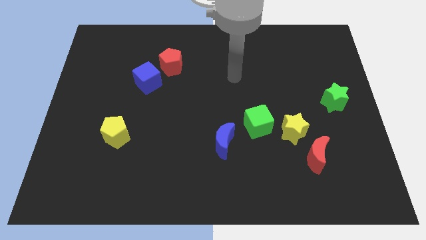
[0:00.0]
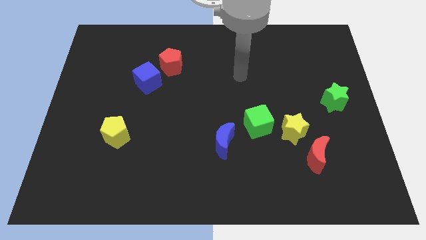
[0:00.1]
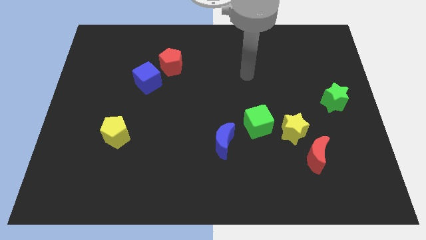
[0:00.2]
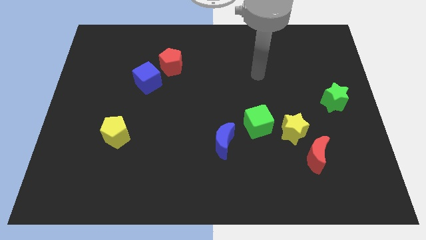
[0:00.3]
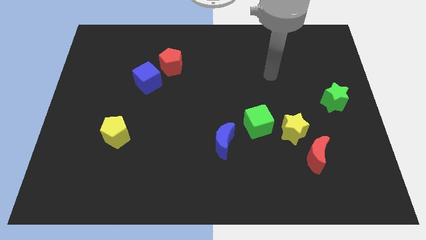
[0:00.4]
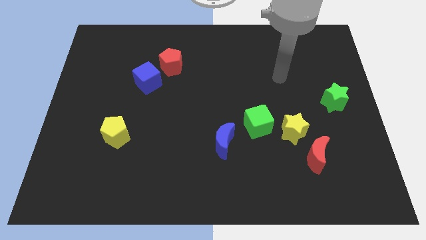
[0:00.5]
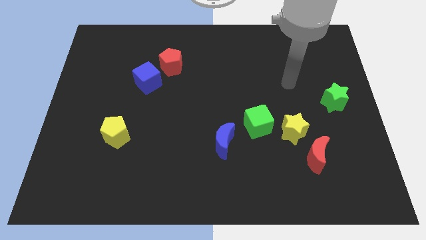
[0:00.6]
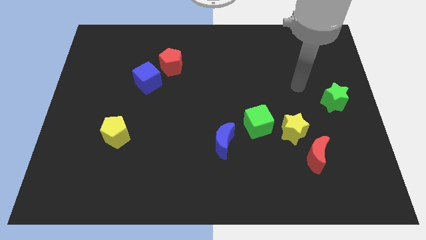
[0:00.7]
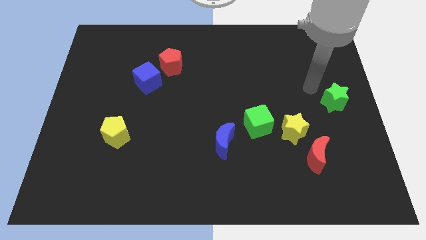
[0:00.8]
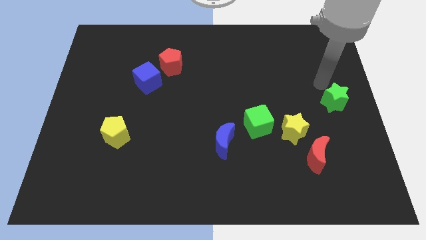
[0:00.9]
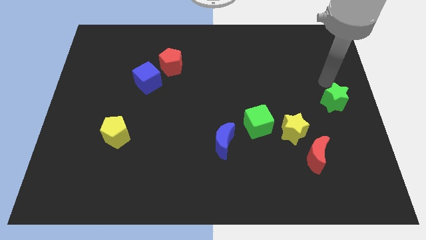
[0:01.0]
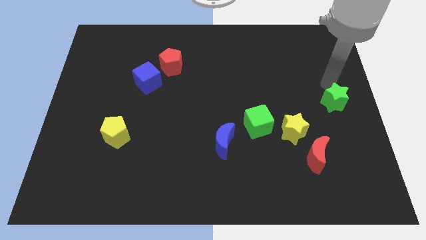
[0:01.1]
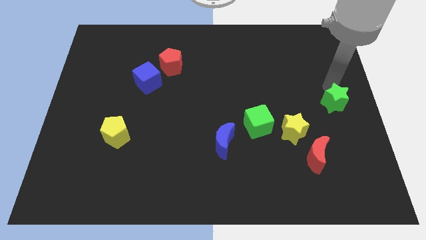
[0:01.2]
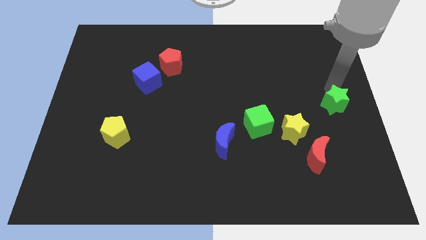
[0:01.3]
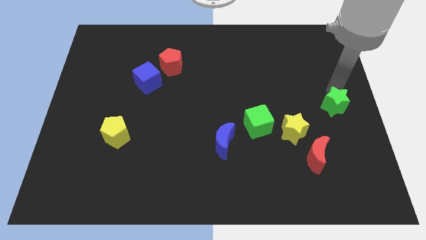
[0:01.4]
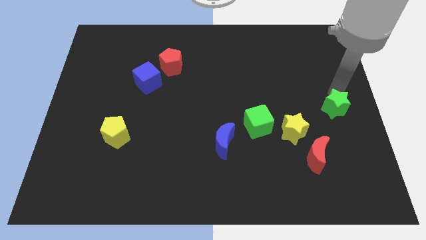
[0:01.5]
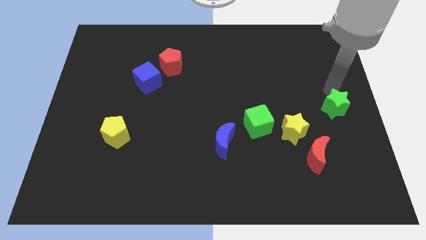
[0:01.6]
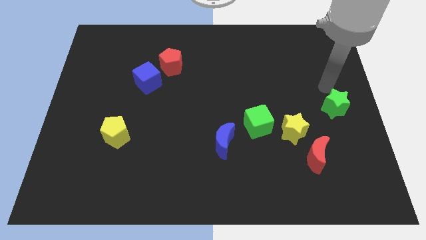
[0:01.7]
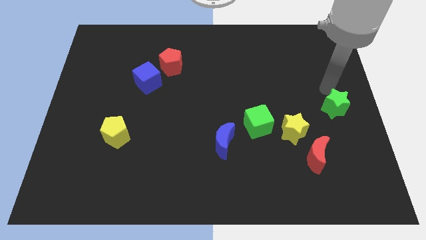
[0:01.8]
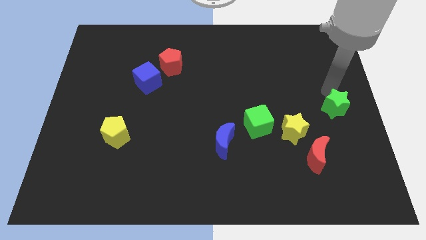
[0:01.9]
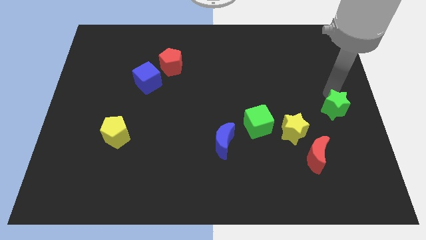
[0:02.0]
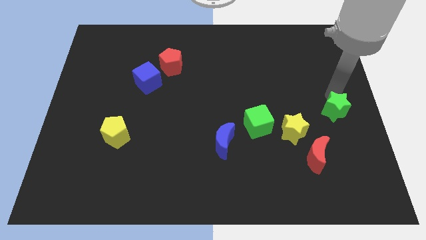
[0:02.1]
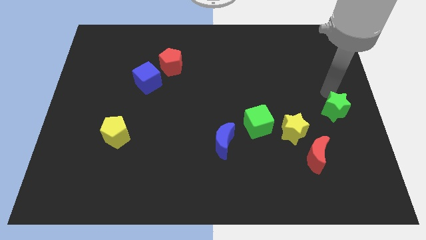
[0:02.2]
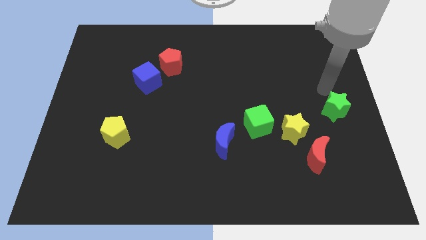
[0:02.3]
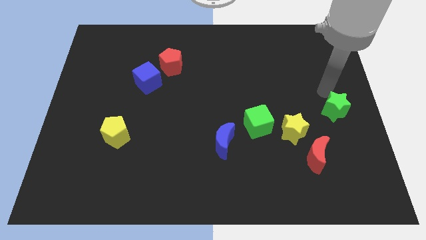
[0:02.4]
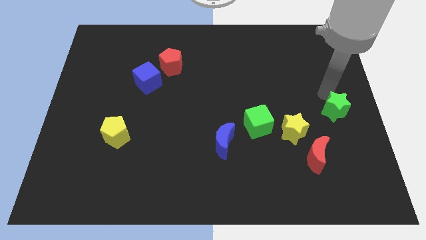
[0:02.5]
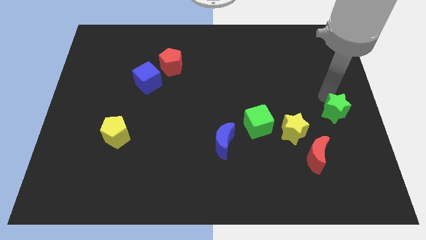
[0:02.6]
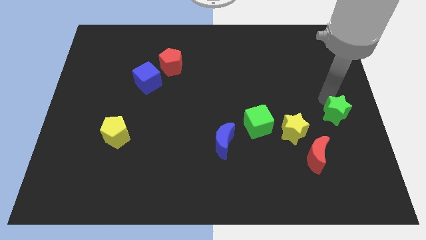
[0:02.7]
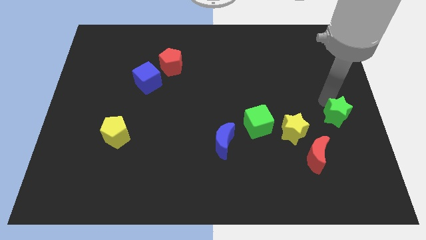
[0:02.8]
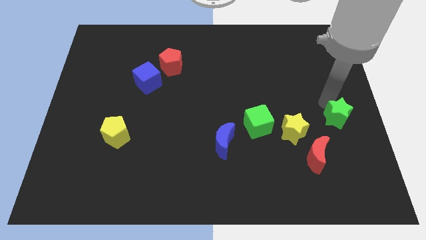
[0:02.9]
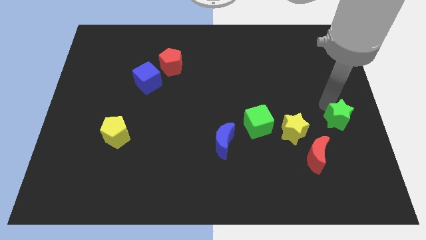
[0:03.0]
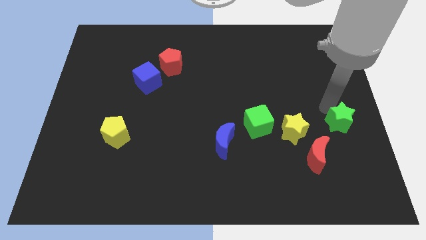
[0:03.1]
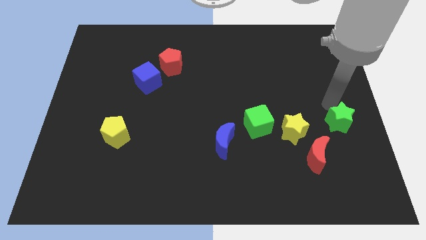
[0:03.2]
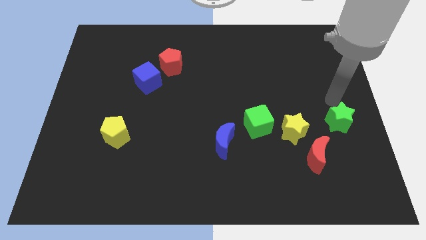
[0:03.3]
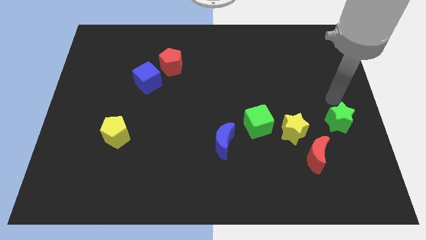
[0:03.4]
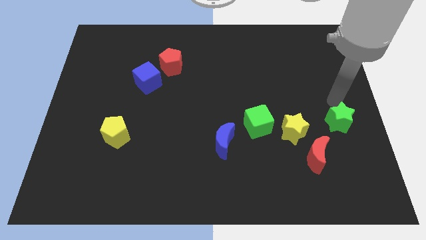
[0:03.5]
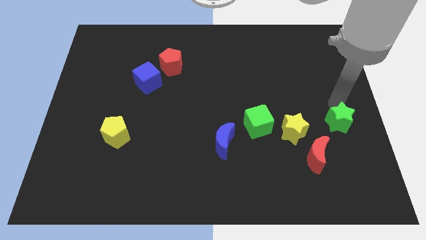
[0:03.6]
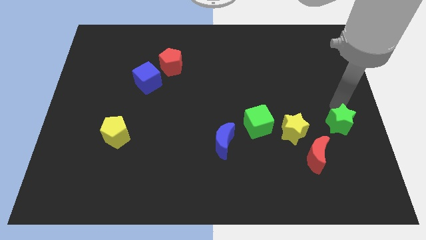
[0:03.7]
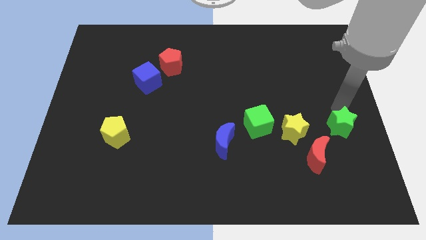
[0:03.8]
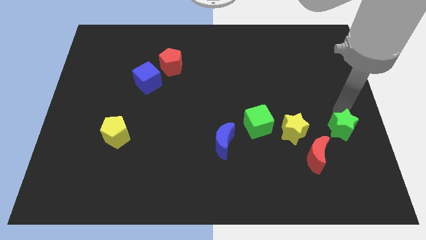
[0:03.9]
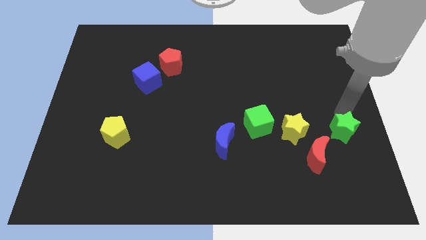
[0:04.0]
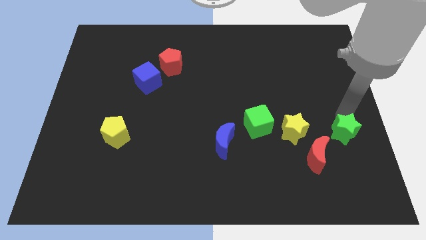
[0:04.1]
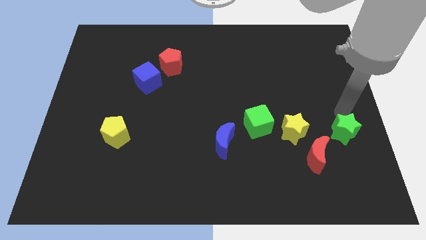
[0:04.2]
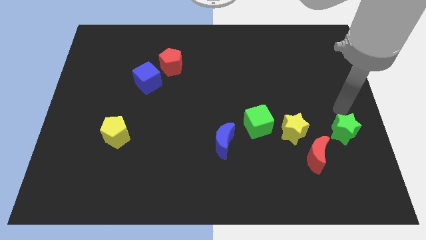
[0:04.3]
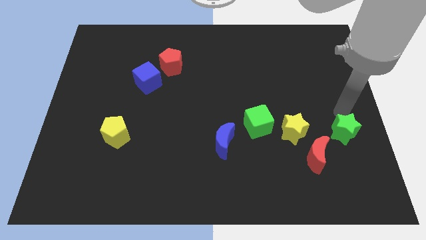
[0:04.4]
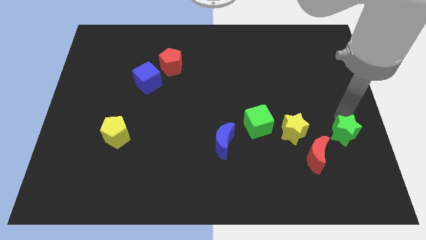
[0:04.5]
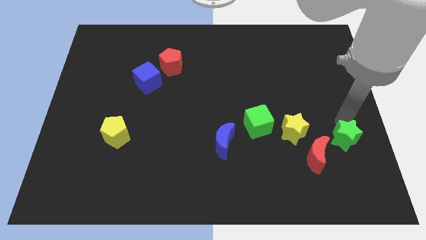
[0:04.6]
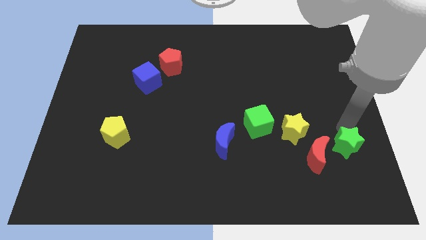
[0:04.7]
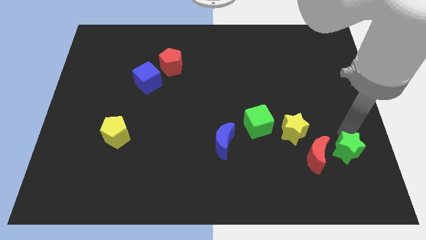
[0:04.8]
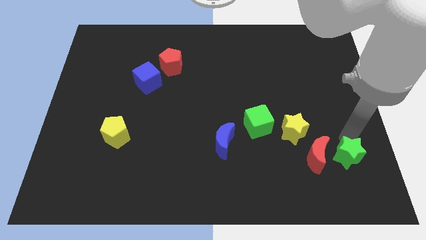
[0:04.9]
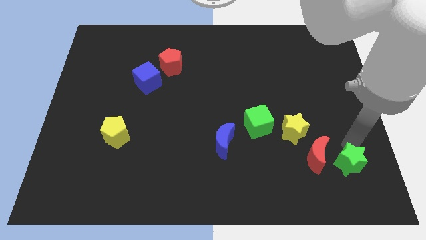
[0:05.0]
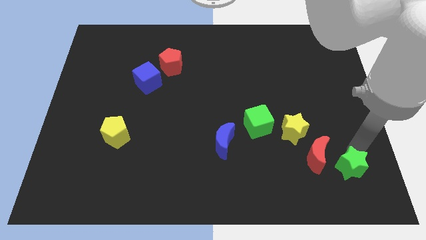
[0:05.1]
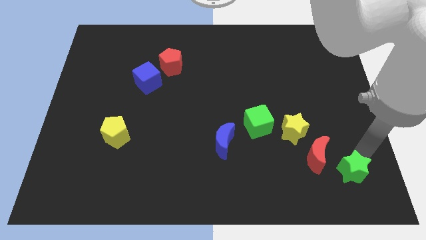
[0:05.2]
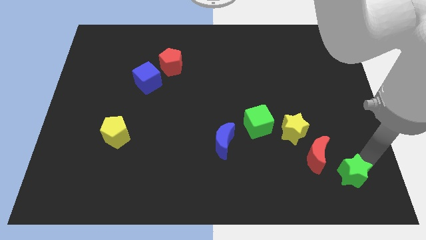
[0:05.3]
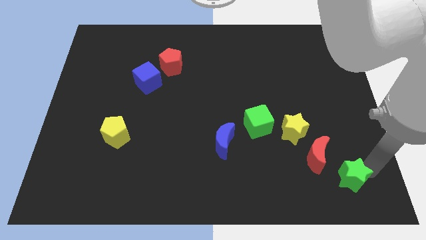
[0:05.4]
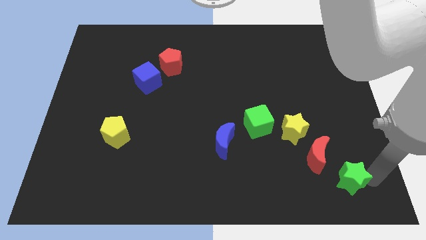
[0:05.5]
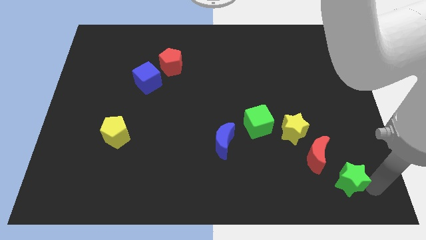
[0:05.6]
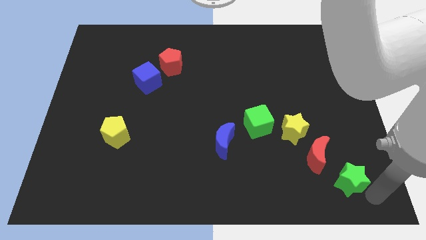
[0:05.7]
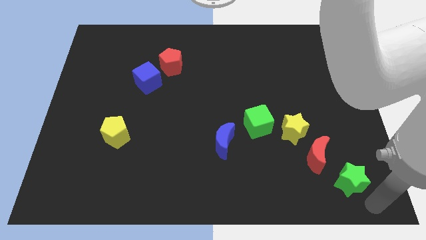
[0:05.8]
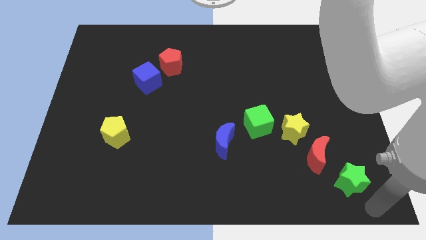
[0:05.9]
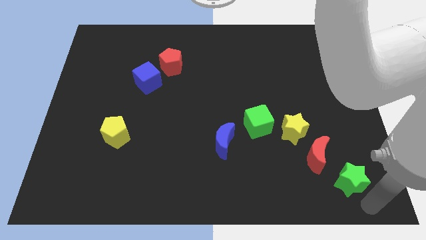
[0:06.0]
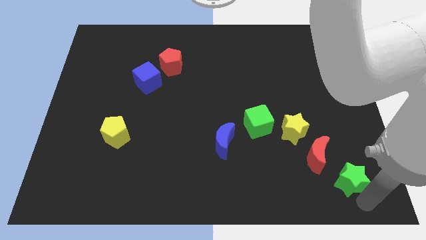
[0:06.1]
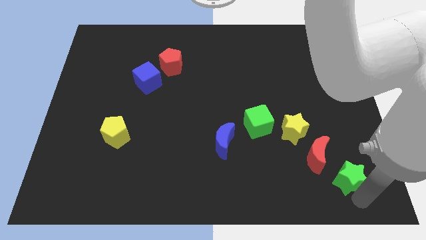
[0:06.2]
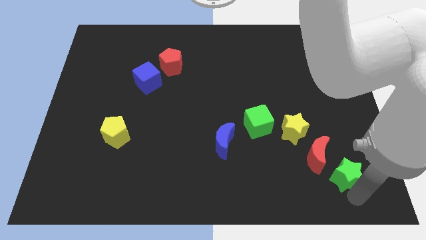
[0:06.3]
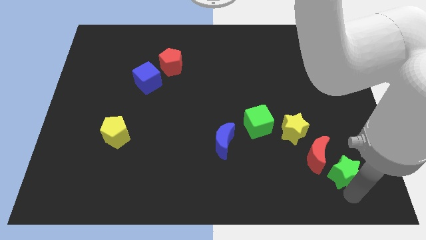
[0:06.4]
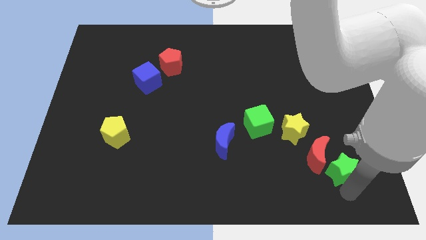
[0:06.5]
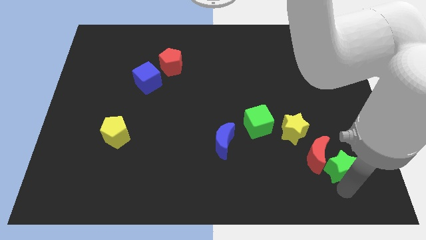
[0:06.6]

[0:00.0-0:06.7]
put the green star diagonally down and to the right of the yellow star
